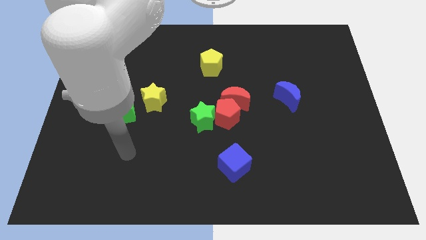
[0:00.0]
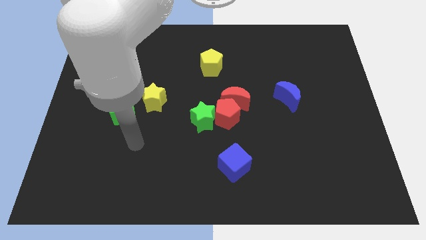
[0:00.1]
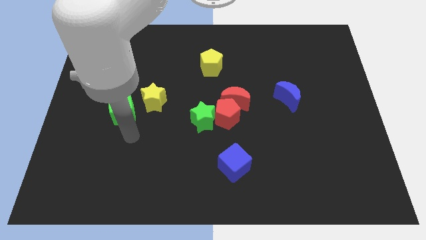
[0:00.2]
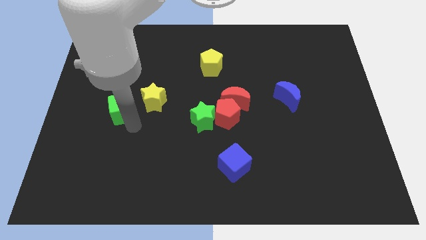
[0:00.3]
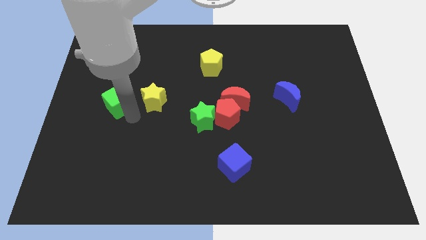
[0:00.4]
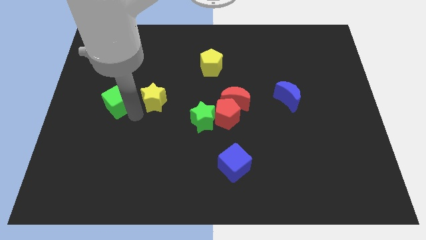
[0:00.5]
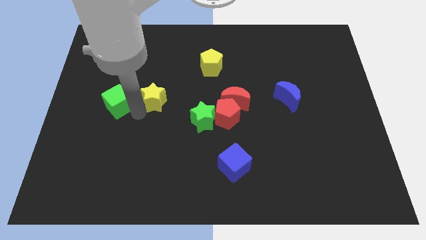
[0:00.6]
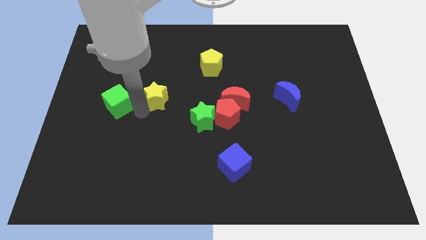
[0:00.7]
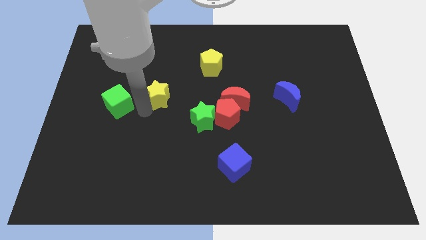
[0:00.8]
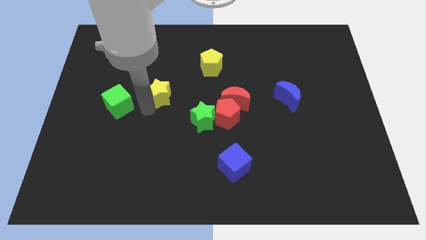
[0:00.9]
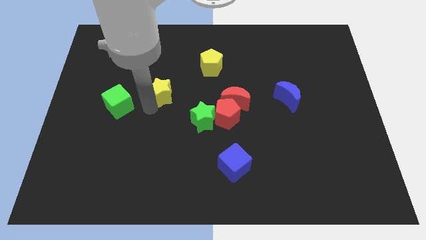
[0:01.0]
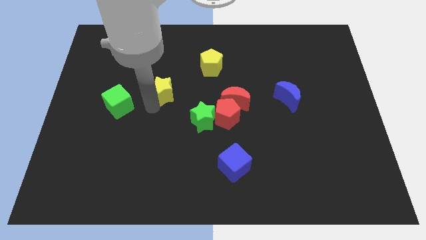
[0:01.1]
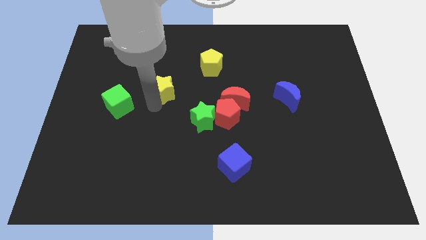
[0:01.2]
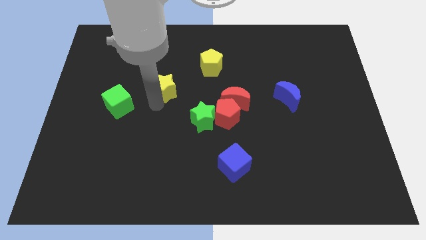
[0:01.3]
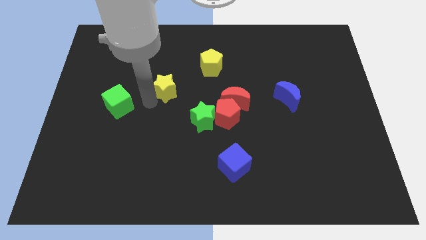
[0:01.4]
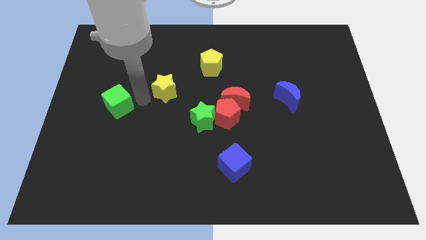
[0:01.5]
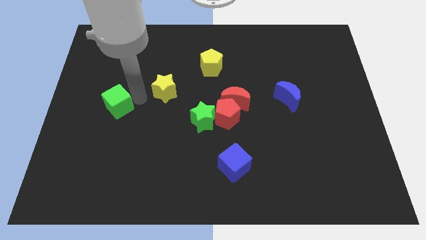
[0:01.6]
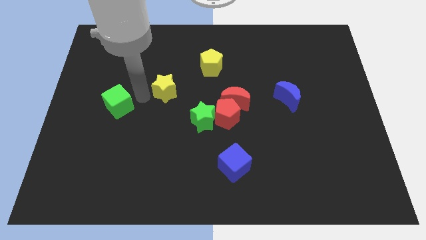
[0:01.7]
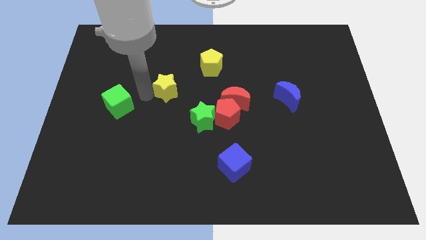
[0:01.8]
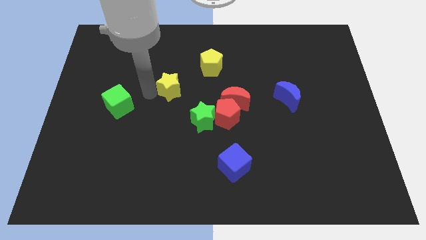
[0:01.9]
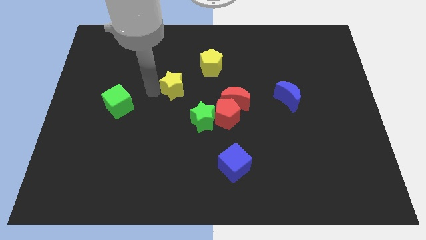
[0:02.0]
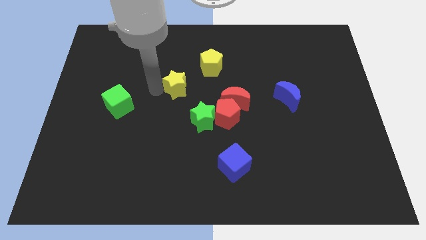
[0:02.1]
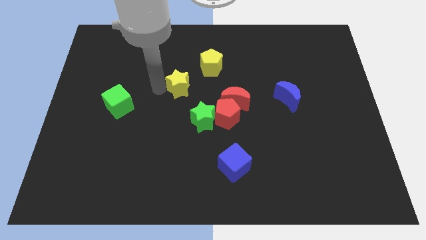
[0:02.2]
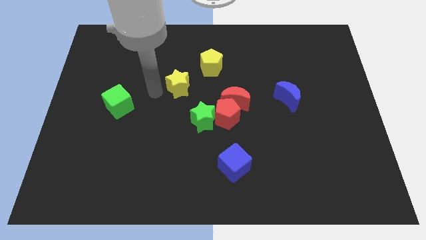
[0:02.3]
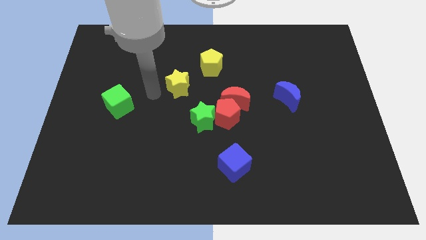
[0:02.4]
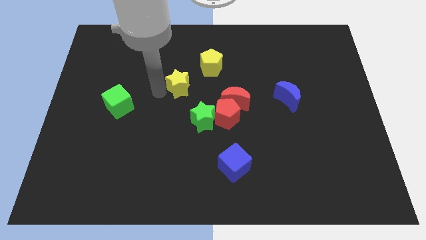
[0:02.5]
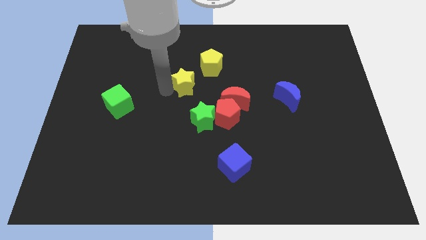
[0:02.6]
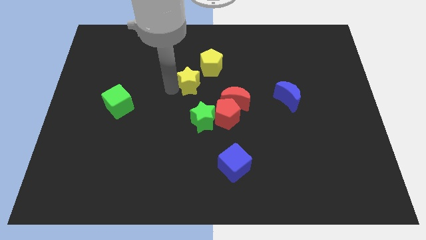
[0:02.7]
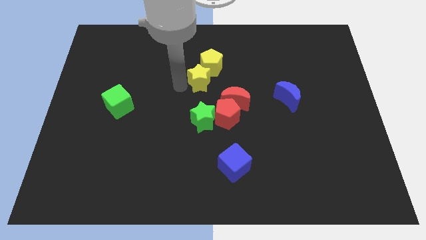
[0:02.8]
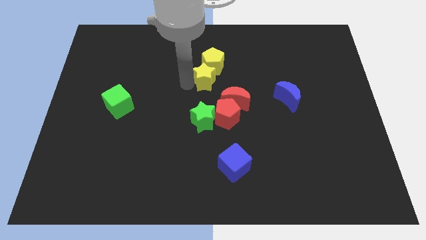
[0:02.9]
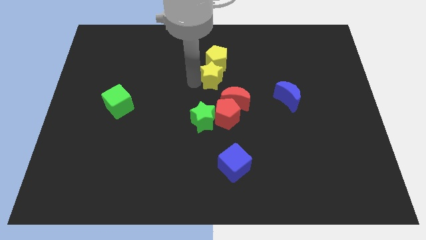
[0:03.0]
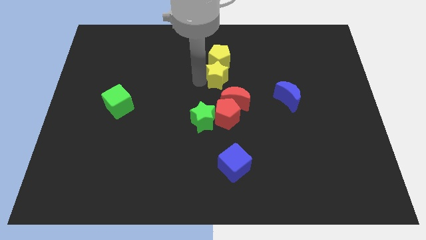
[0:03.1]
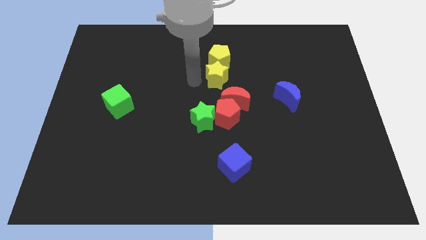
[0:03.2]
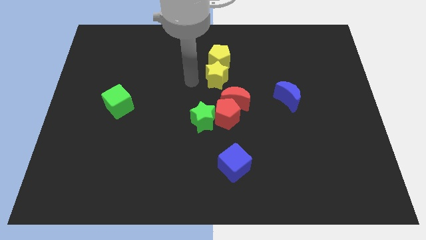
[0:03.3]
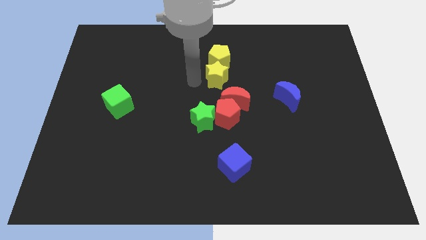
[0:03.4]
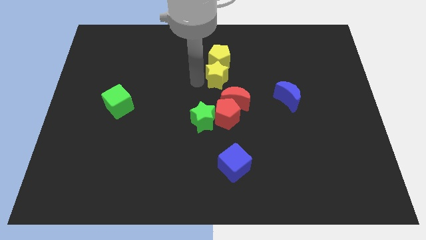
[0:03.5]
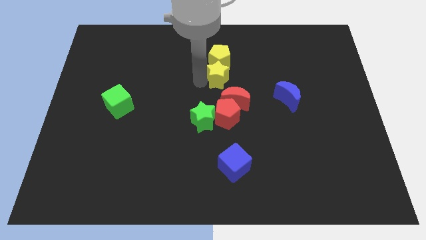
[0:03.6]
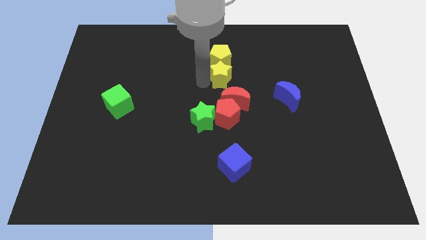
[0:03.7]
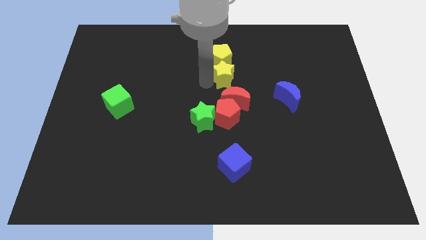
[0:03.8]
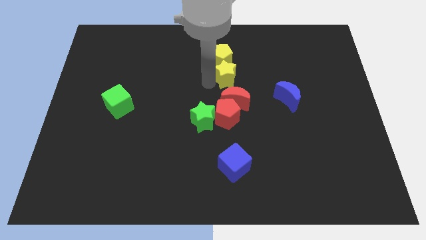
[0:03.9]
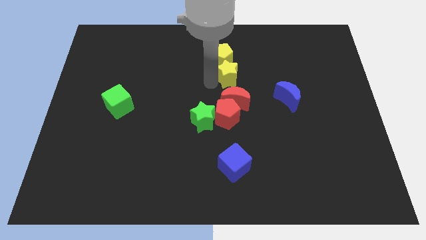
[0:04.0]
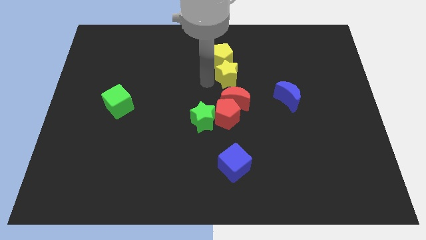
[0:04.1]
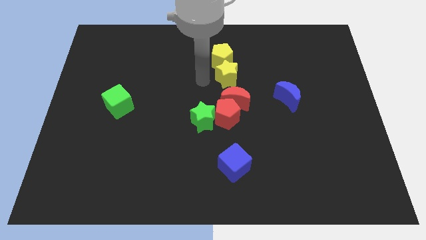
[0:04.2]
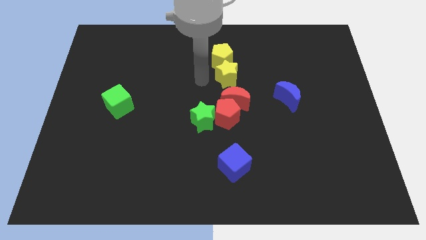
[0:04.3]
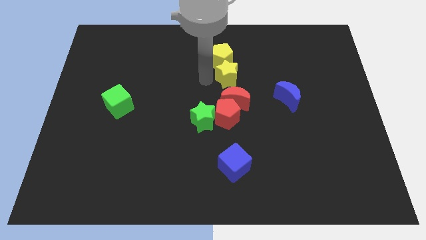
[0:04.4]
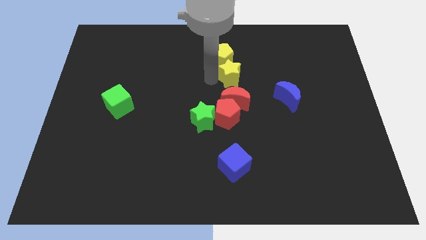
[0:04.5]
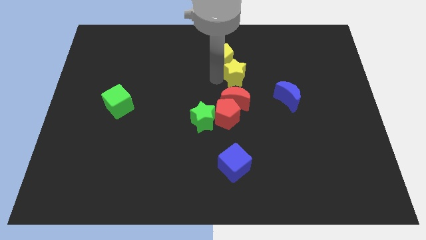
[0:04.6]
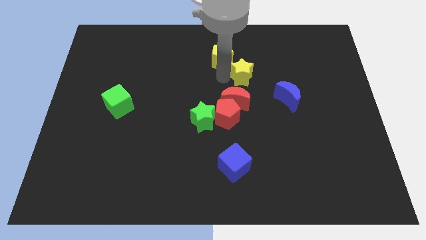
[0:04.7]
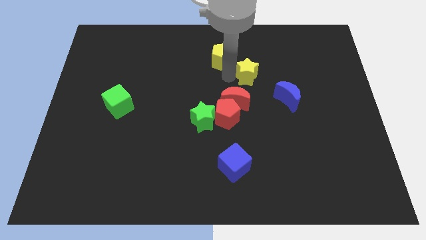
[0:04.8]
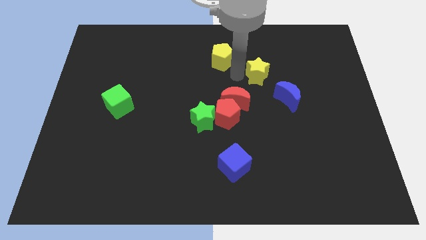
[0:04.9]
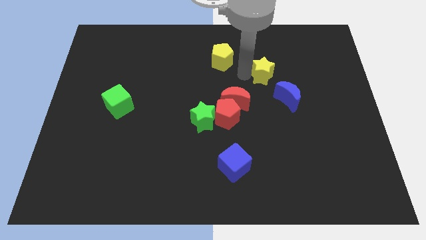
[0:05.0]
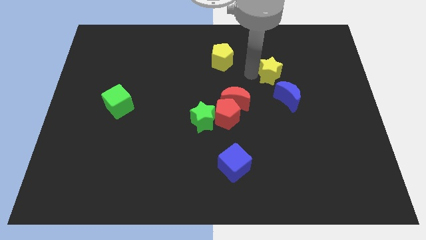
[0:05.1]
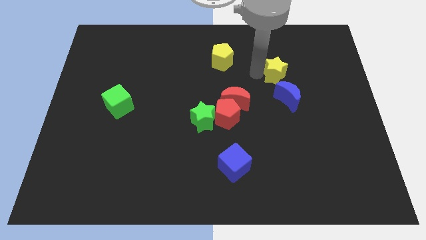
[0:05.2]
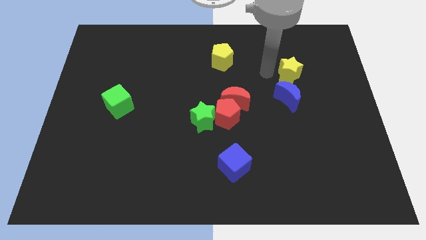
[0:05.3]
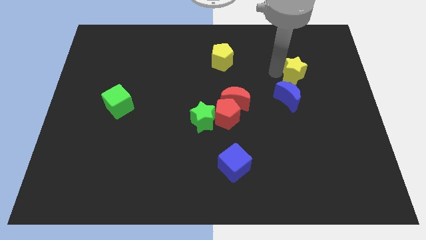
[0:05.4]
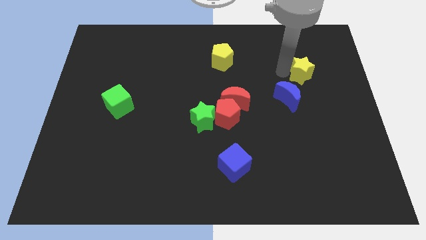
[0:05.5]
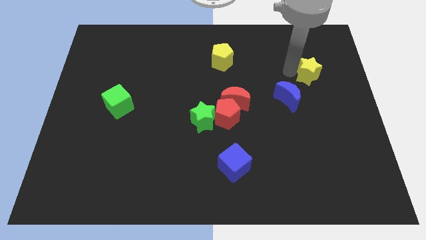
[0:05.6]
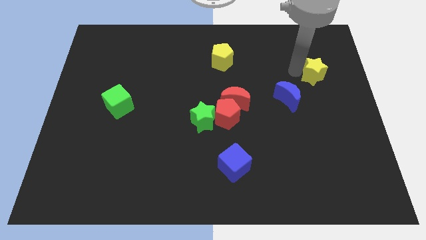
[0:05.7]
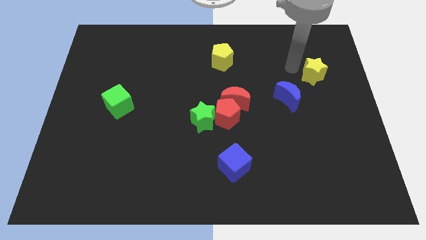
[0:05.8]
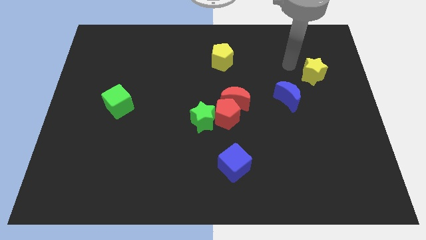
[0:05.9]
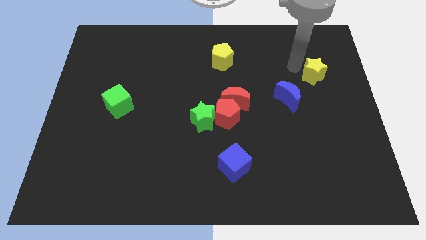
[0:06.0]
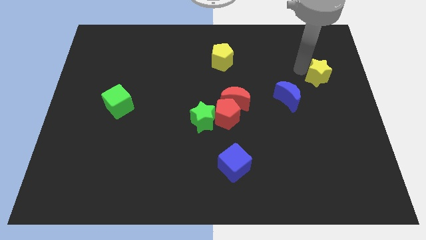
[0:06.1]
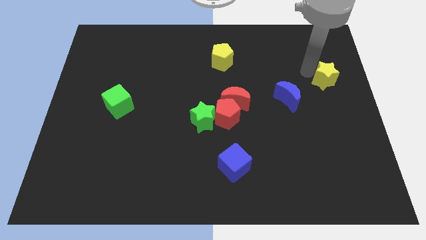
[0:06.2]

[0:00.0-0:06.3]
push the yellow star to the right side of the board
